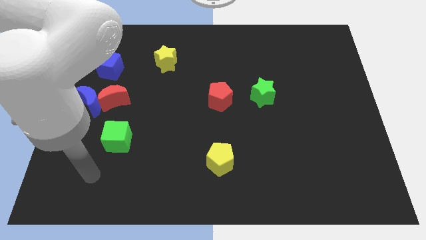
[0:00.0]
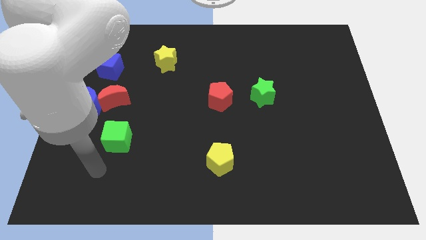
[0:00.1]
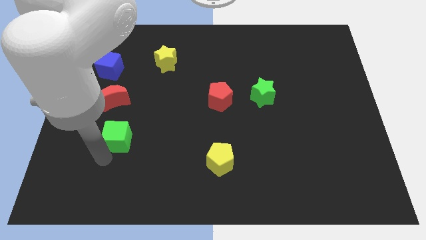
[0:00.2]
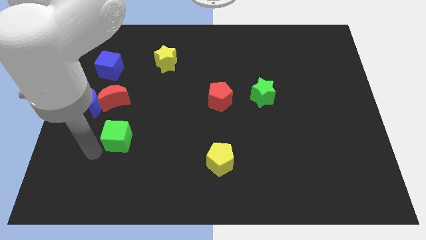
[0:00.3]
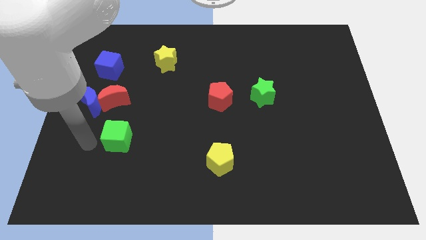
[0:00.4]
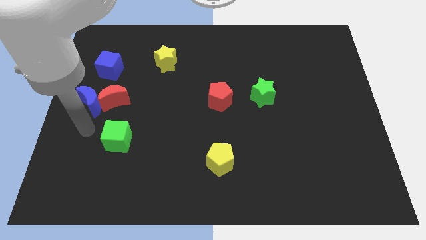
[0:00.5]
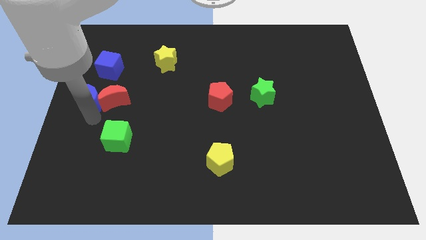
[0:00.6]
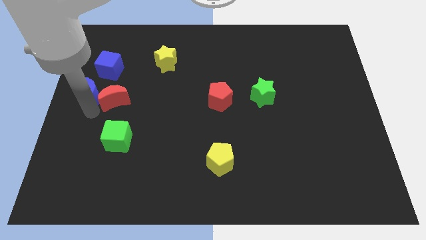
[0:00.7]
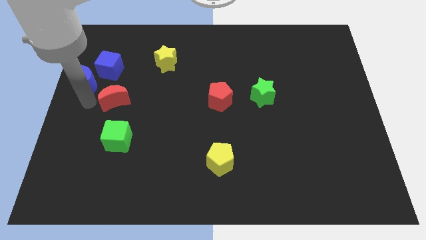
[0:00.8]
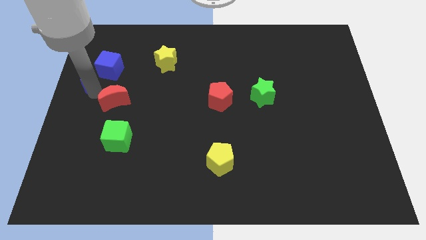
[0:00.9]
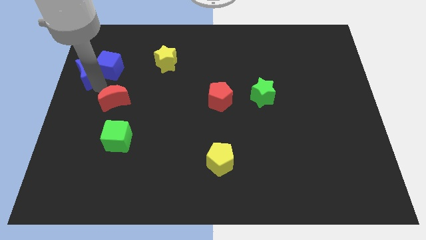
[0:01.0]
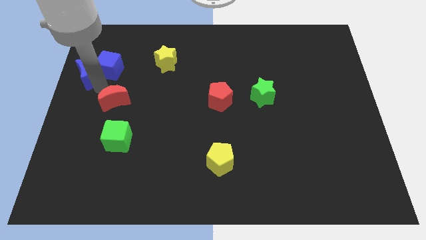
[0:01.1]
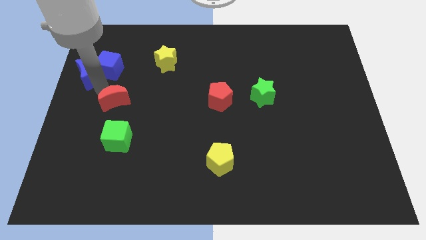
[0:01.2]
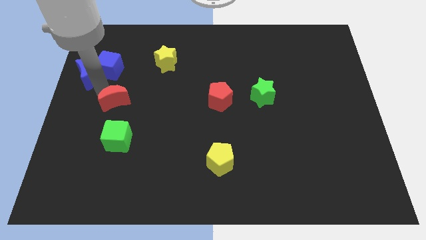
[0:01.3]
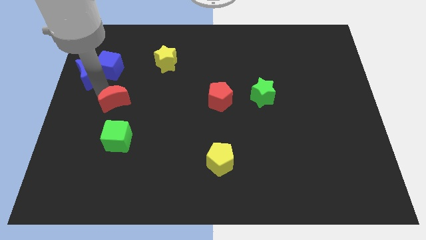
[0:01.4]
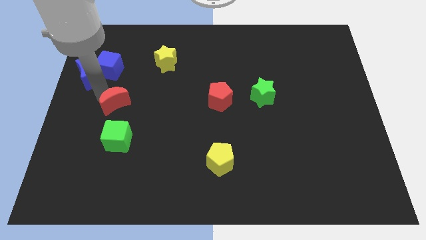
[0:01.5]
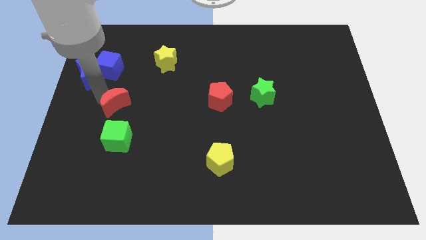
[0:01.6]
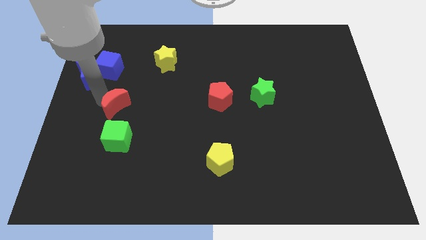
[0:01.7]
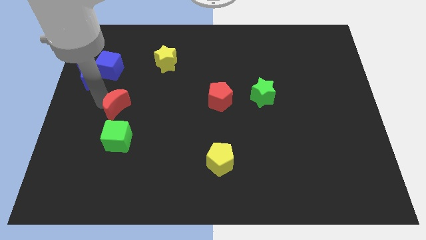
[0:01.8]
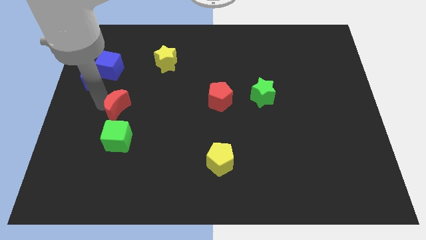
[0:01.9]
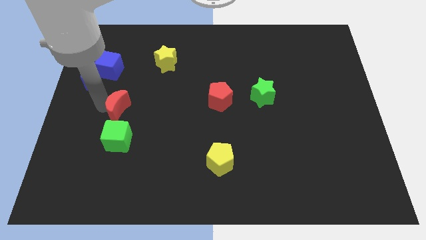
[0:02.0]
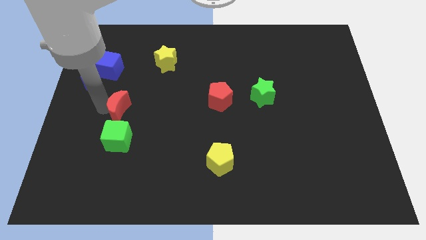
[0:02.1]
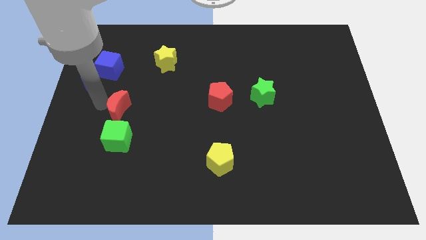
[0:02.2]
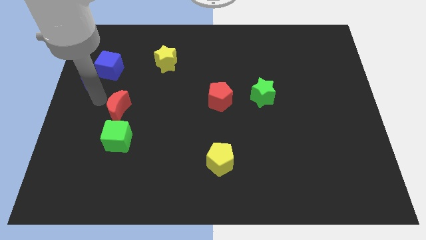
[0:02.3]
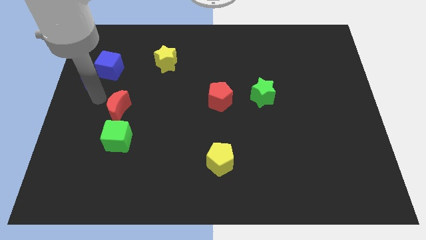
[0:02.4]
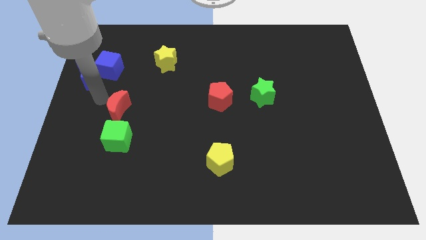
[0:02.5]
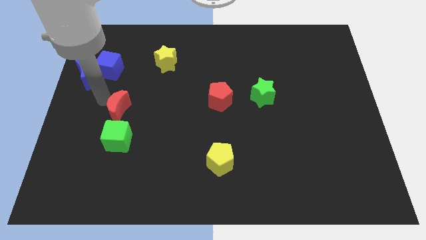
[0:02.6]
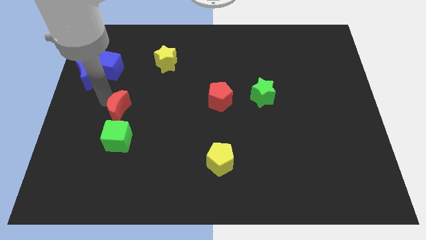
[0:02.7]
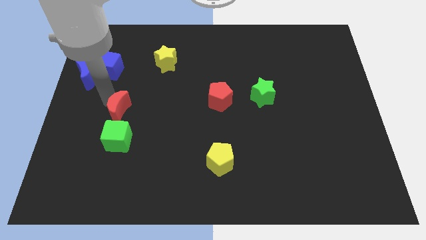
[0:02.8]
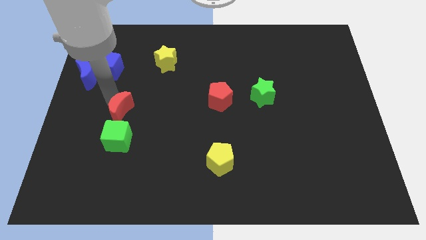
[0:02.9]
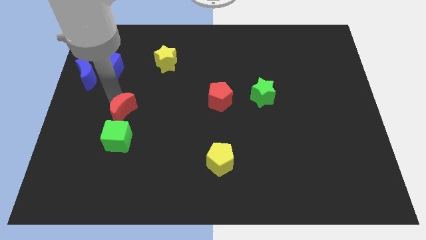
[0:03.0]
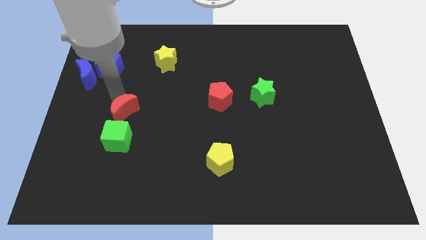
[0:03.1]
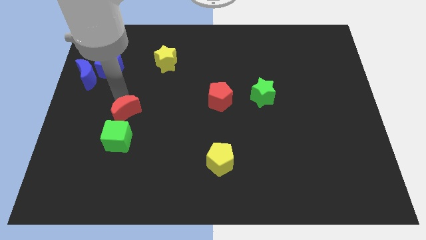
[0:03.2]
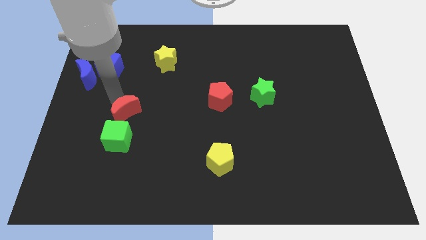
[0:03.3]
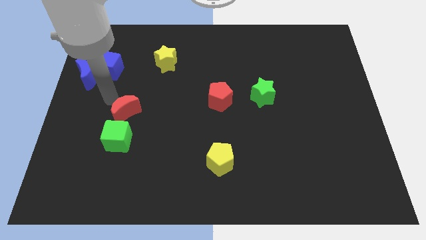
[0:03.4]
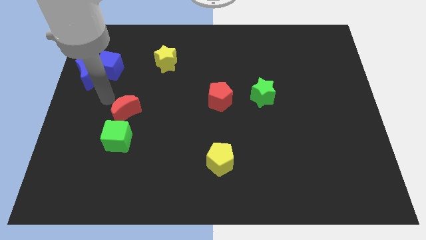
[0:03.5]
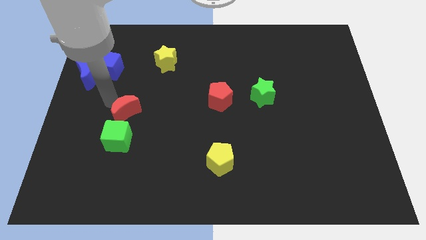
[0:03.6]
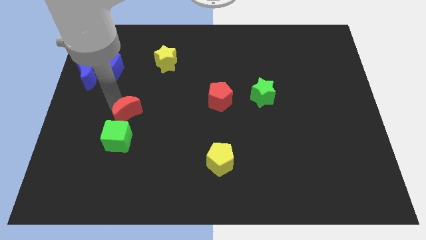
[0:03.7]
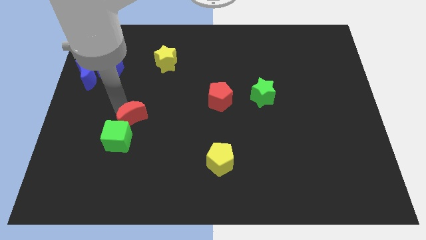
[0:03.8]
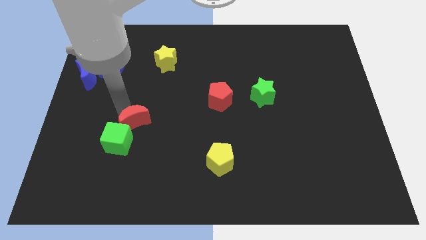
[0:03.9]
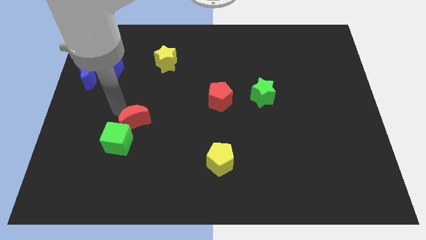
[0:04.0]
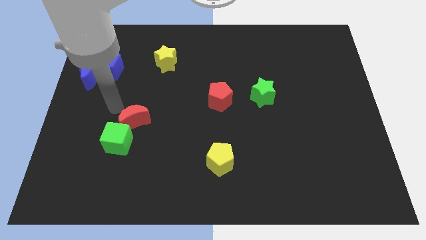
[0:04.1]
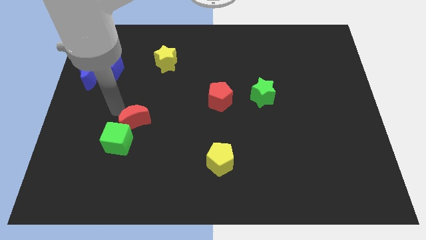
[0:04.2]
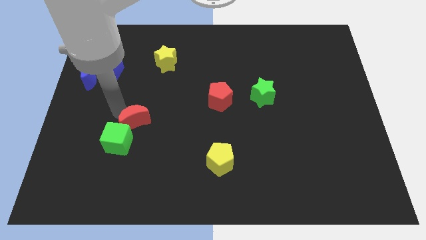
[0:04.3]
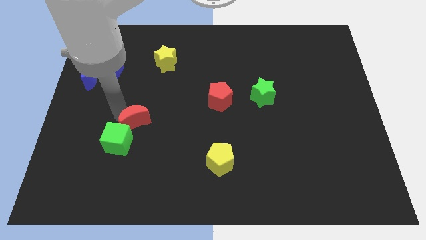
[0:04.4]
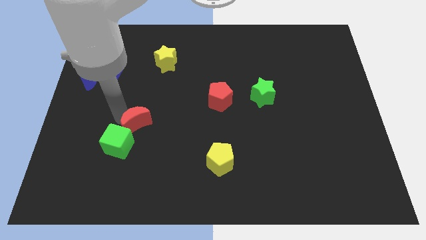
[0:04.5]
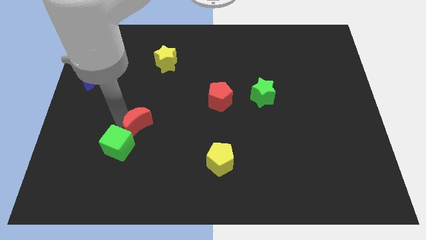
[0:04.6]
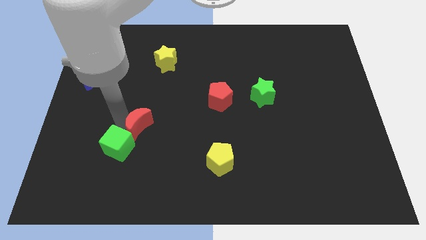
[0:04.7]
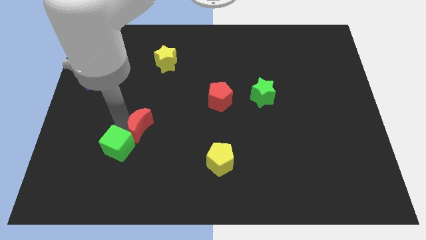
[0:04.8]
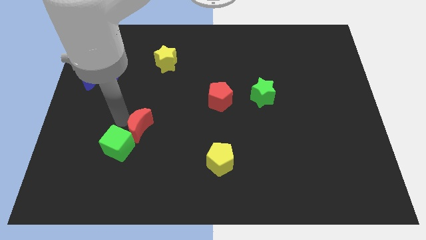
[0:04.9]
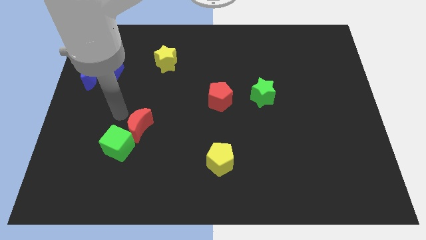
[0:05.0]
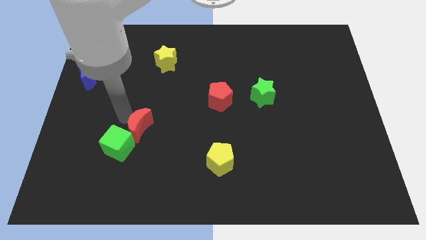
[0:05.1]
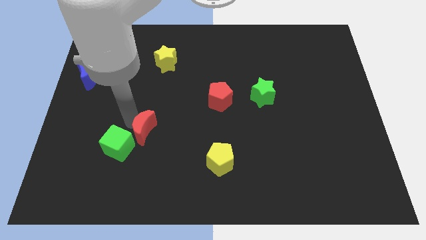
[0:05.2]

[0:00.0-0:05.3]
slide the red moon to the right of the green cube

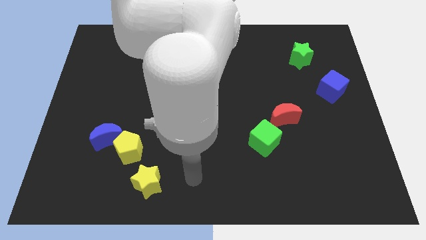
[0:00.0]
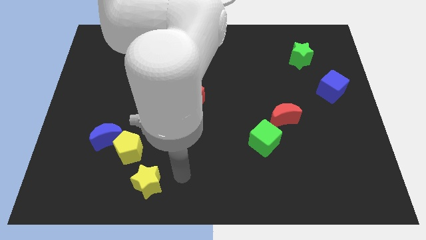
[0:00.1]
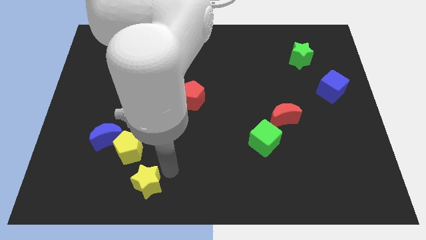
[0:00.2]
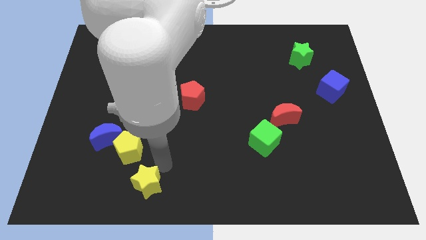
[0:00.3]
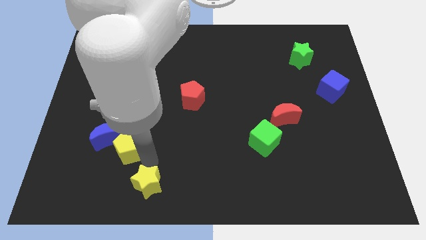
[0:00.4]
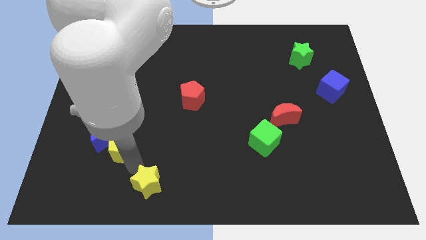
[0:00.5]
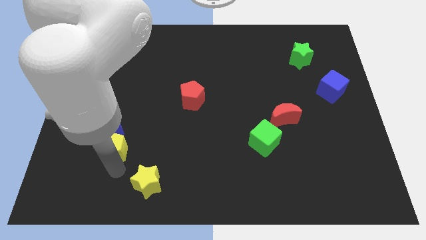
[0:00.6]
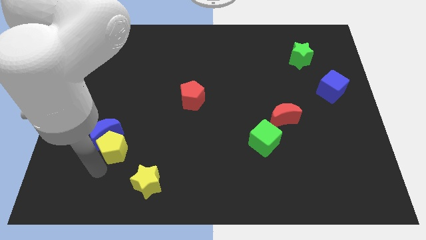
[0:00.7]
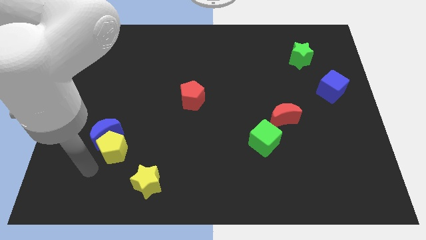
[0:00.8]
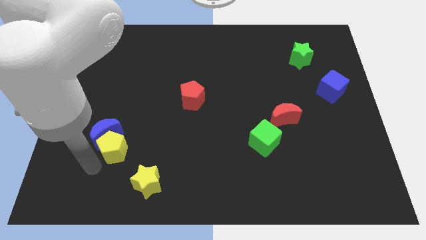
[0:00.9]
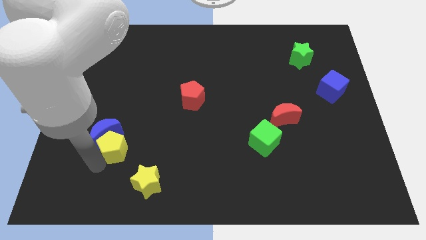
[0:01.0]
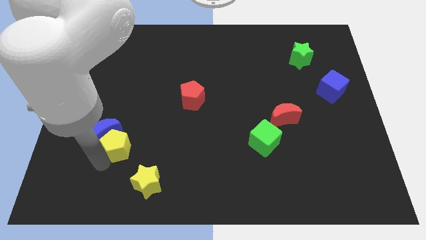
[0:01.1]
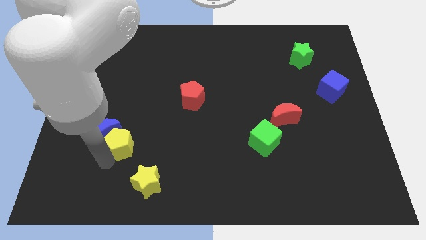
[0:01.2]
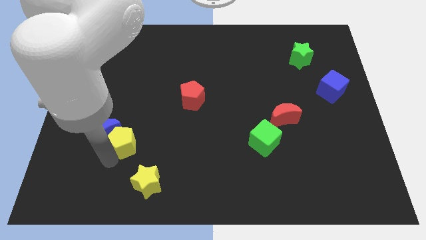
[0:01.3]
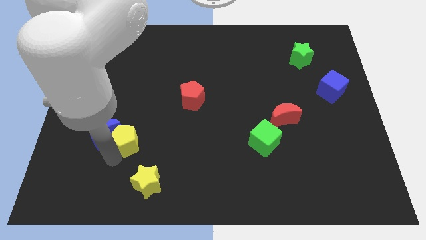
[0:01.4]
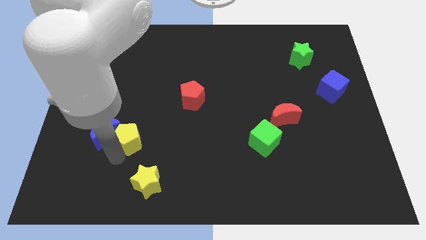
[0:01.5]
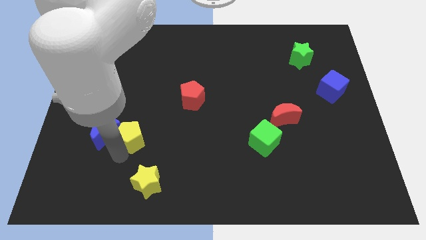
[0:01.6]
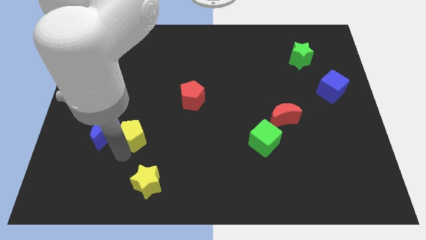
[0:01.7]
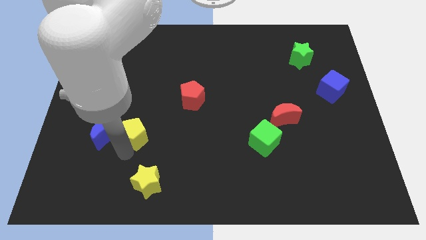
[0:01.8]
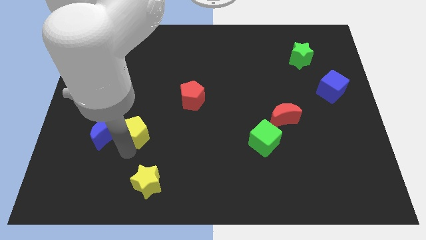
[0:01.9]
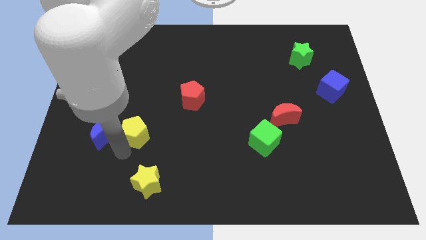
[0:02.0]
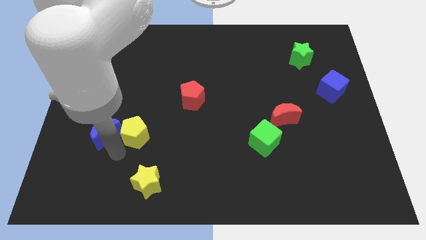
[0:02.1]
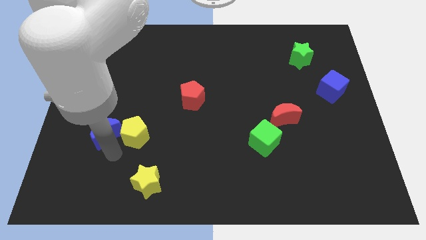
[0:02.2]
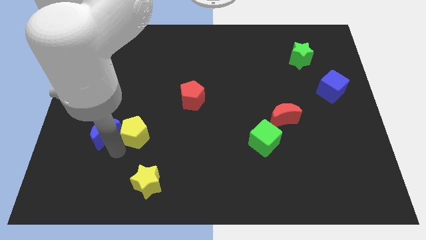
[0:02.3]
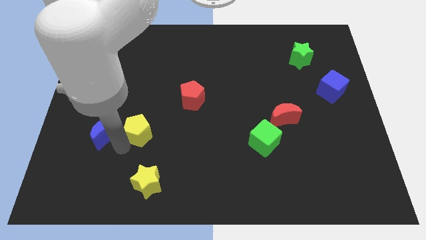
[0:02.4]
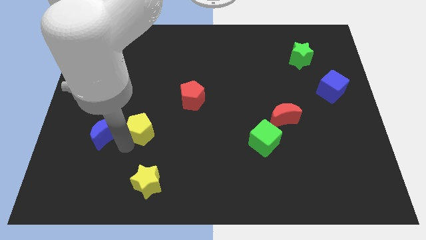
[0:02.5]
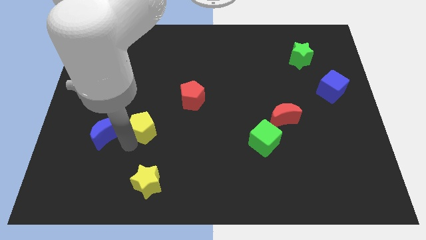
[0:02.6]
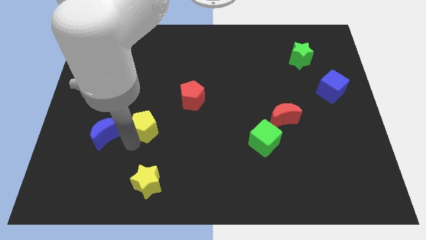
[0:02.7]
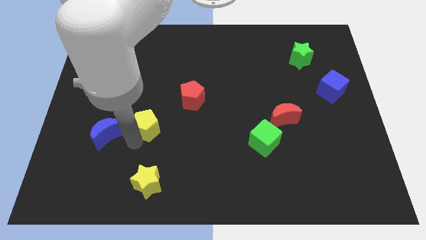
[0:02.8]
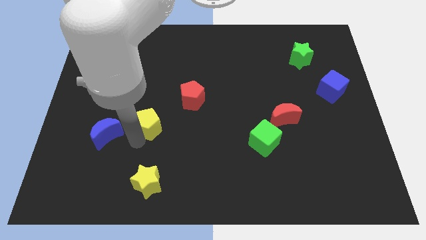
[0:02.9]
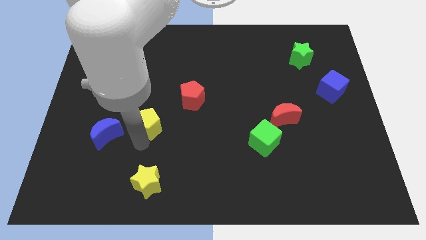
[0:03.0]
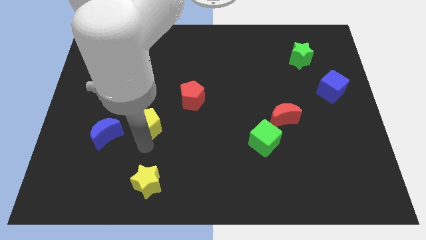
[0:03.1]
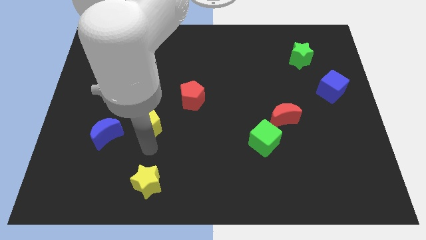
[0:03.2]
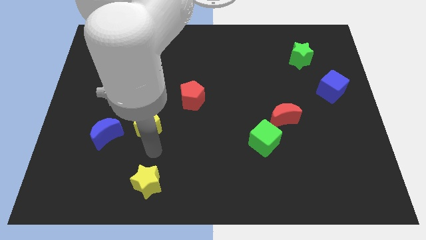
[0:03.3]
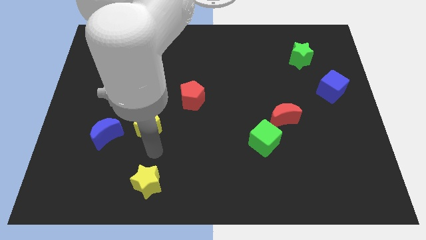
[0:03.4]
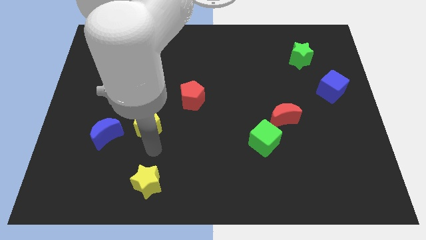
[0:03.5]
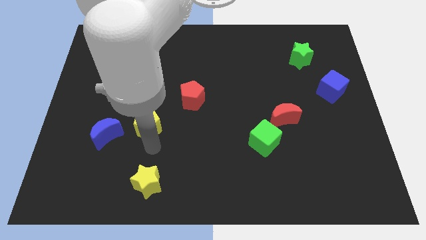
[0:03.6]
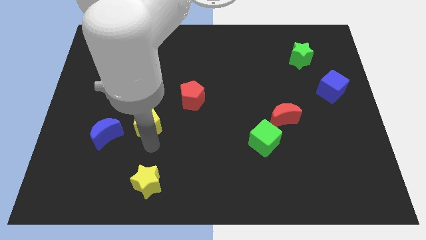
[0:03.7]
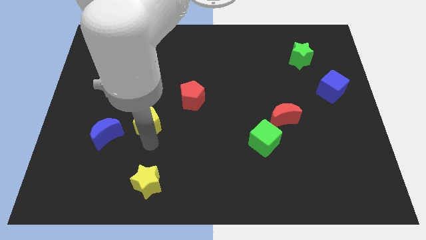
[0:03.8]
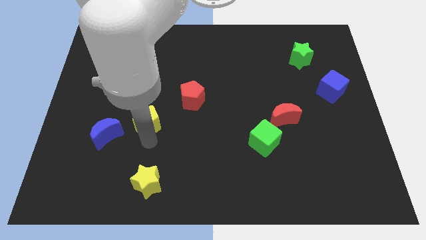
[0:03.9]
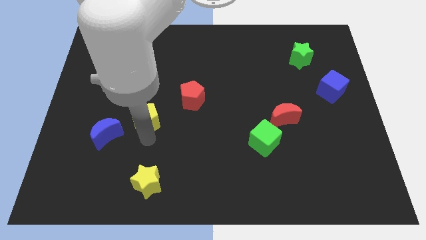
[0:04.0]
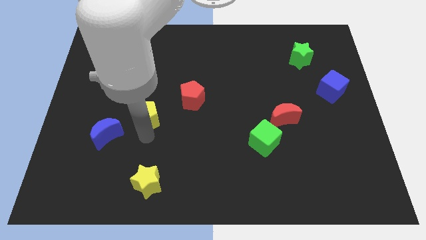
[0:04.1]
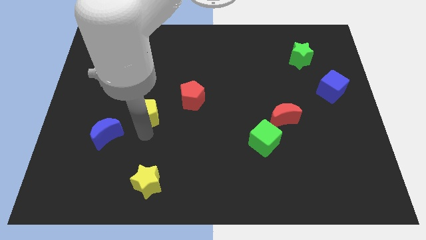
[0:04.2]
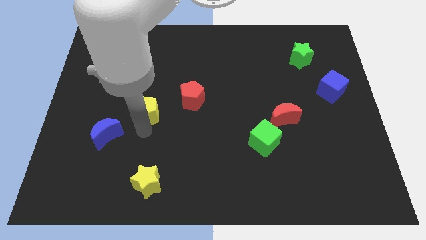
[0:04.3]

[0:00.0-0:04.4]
push the yellow pentagon left of the red pentagon
